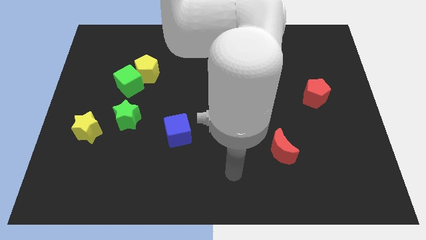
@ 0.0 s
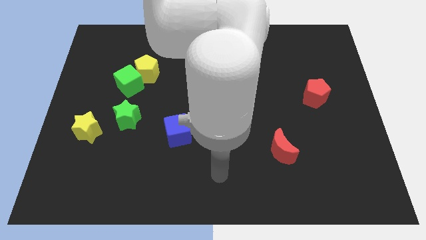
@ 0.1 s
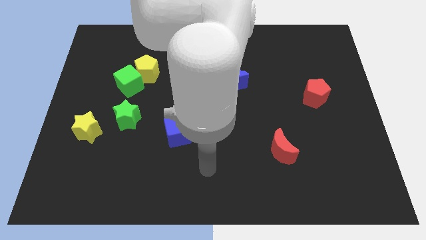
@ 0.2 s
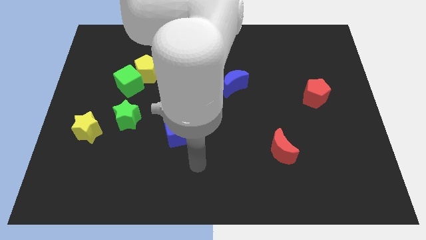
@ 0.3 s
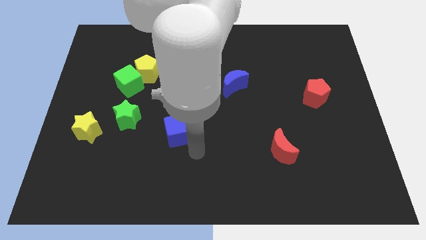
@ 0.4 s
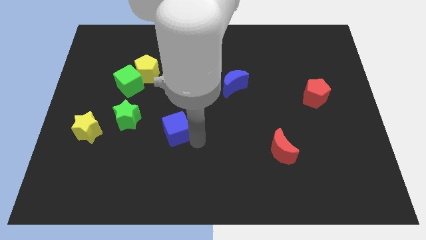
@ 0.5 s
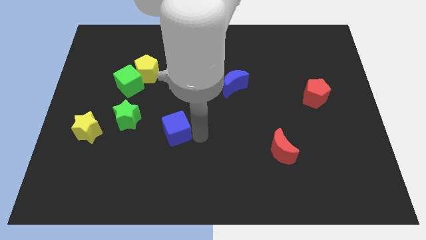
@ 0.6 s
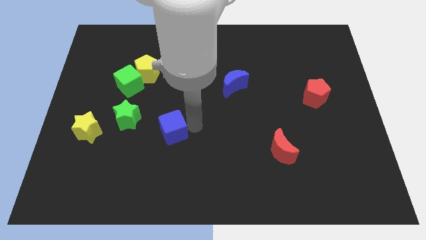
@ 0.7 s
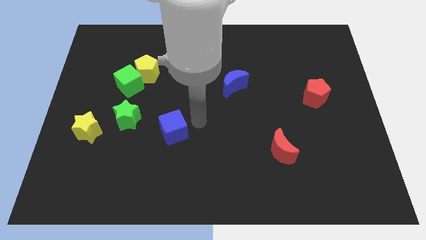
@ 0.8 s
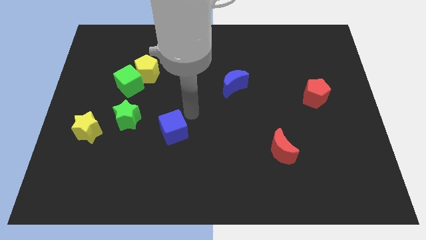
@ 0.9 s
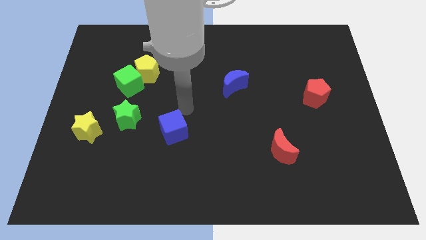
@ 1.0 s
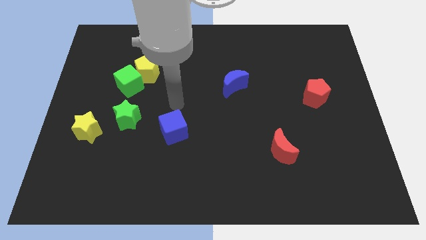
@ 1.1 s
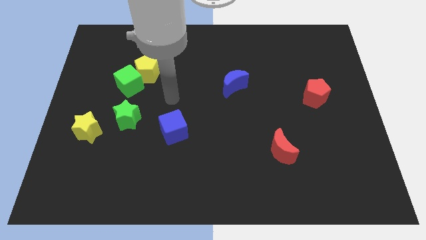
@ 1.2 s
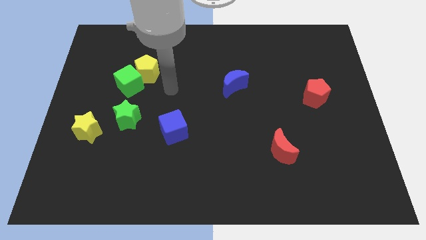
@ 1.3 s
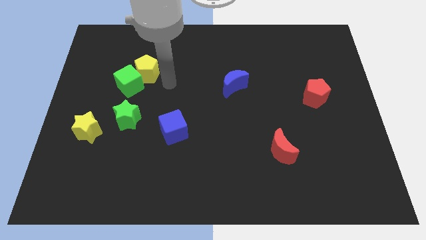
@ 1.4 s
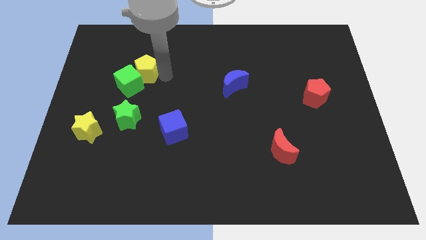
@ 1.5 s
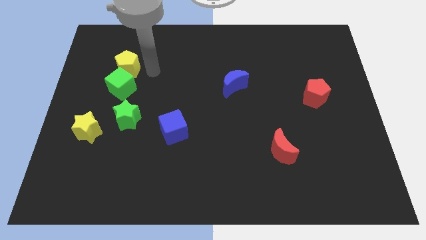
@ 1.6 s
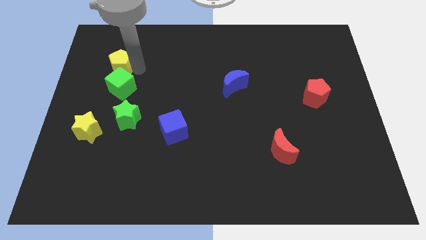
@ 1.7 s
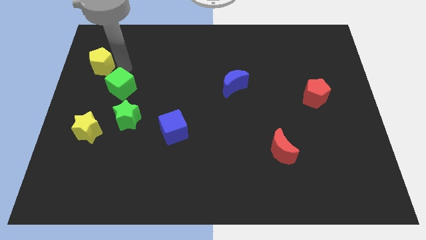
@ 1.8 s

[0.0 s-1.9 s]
pull the green cube apart from the yellow pentagon

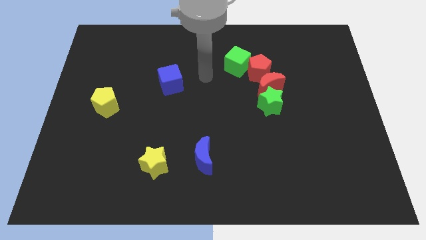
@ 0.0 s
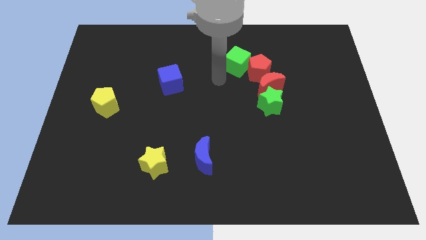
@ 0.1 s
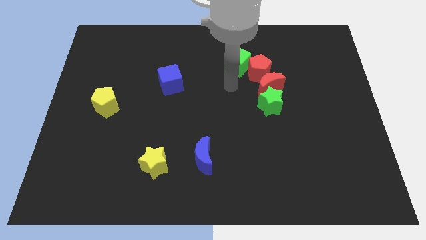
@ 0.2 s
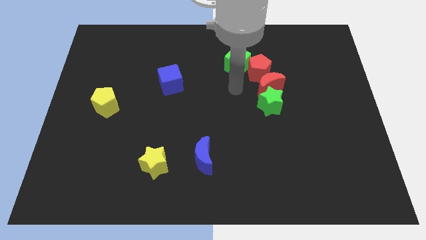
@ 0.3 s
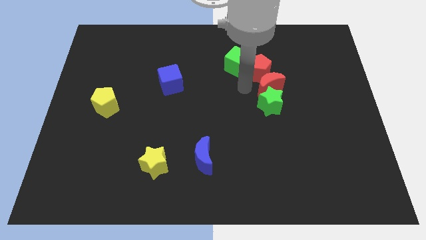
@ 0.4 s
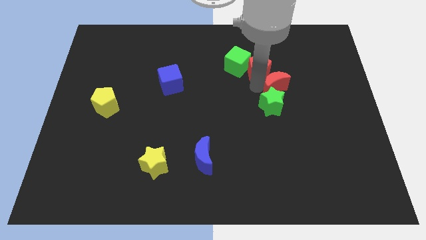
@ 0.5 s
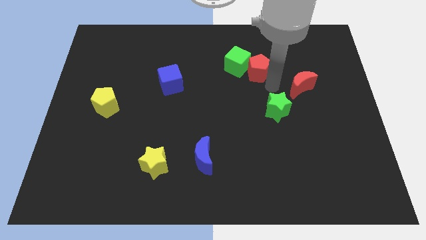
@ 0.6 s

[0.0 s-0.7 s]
pull the green star apart from the red moon

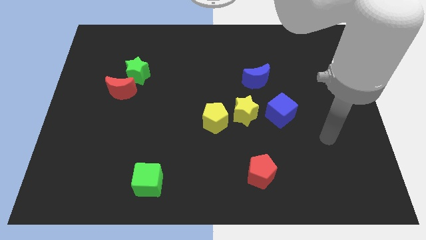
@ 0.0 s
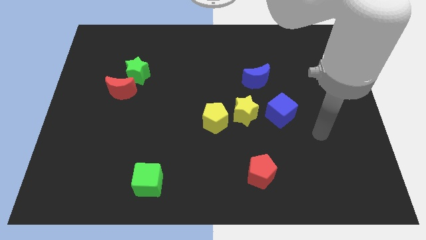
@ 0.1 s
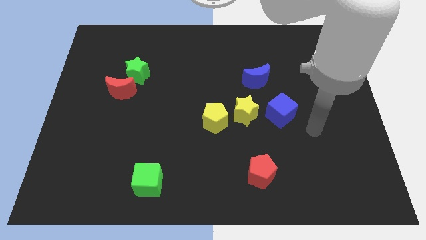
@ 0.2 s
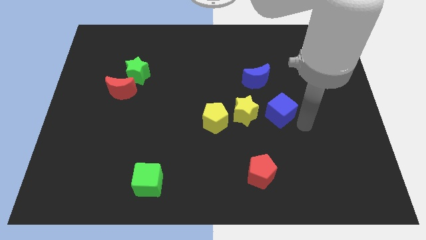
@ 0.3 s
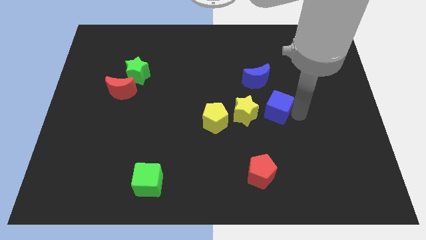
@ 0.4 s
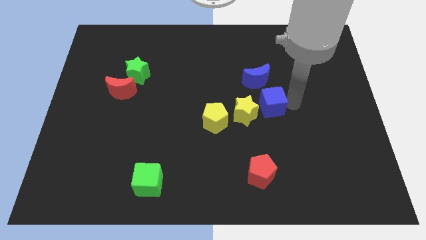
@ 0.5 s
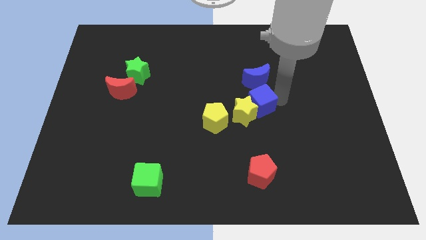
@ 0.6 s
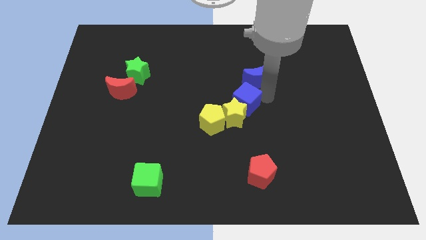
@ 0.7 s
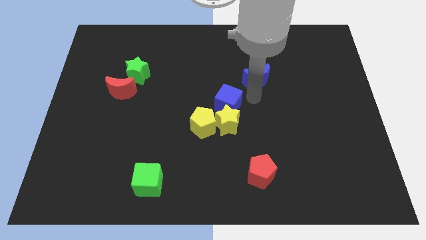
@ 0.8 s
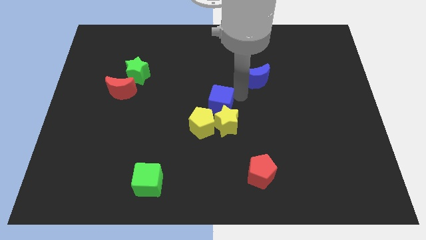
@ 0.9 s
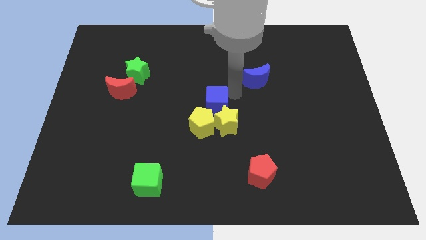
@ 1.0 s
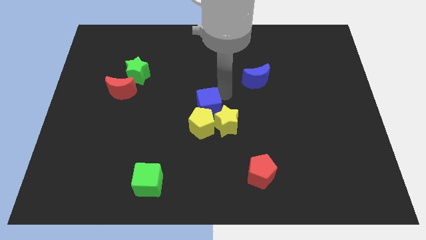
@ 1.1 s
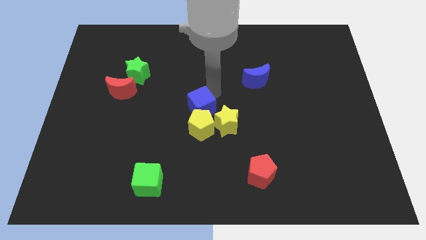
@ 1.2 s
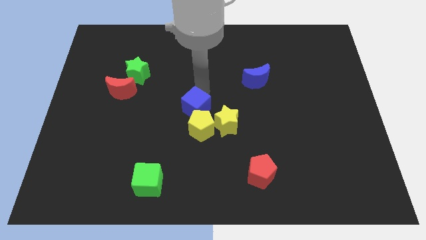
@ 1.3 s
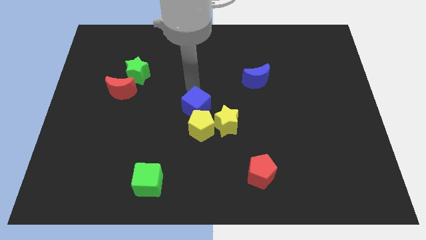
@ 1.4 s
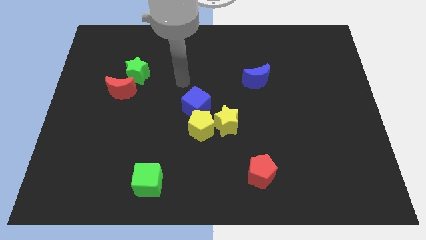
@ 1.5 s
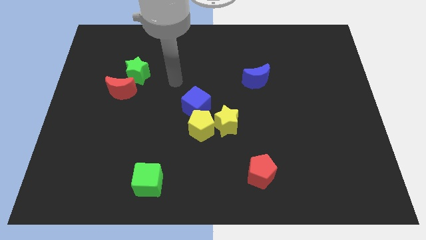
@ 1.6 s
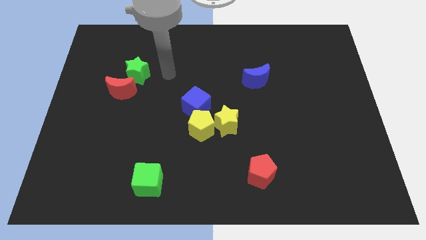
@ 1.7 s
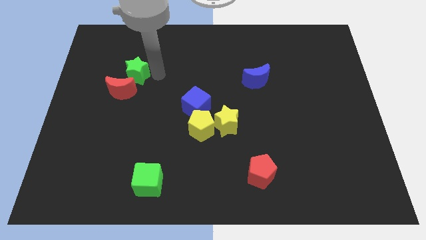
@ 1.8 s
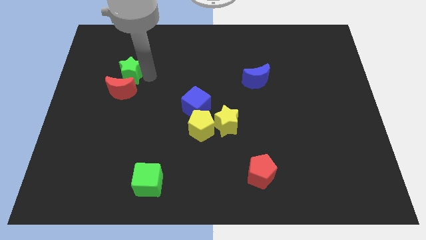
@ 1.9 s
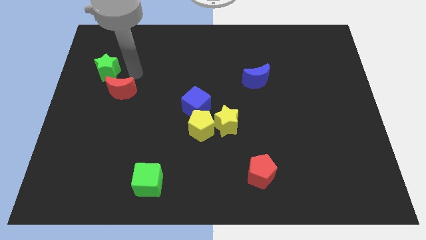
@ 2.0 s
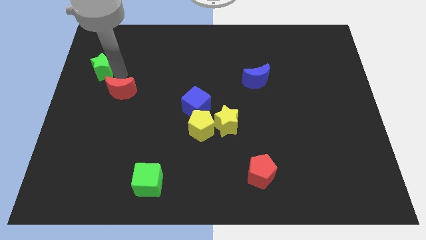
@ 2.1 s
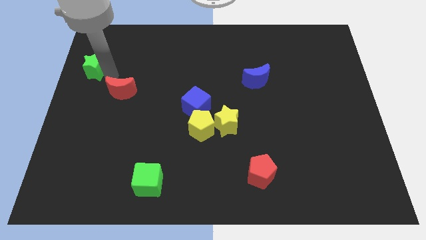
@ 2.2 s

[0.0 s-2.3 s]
separate the red moon from the green star

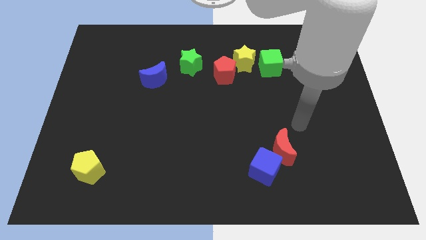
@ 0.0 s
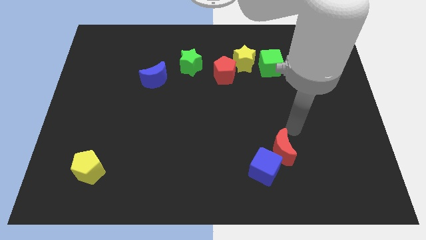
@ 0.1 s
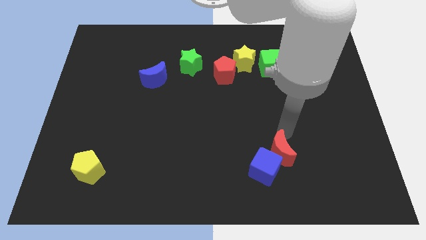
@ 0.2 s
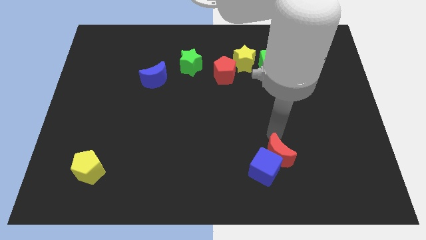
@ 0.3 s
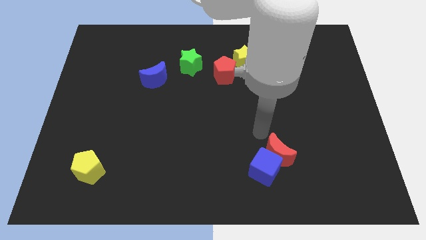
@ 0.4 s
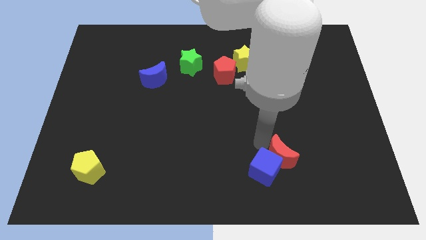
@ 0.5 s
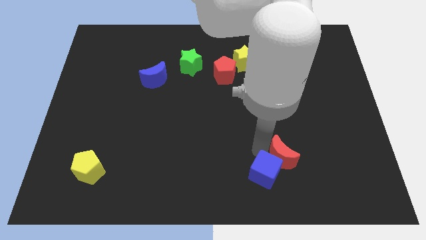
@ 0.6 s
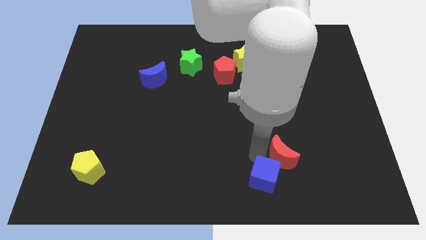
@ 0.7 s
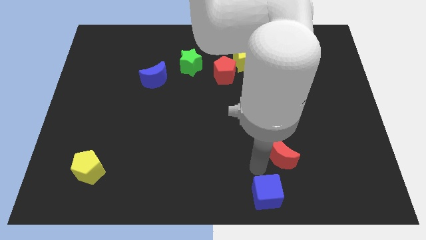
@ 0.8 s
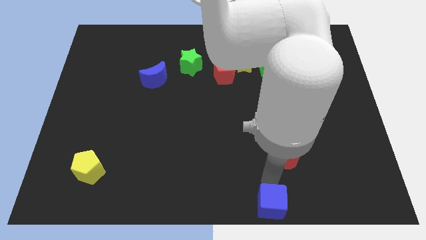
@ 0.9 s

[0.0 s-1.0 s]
pull the red moon apart from the blue cube

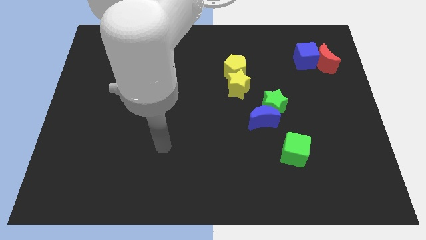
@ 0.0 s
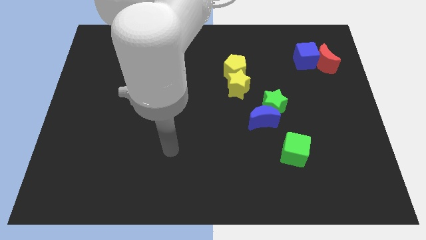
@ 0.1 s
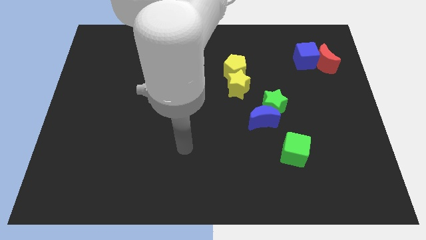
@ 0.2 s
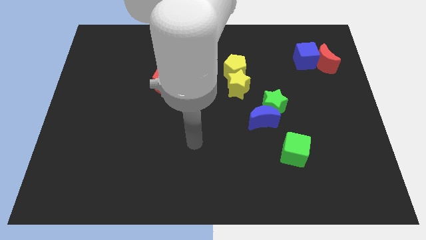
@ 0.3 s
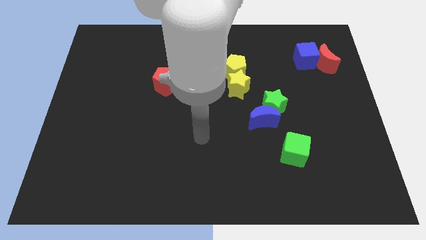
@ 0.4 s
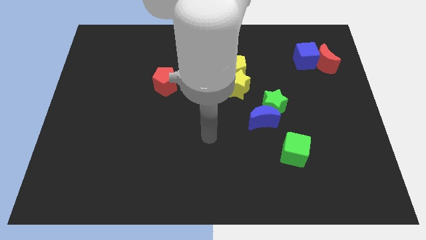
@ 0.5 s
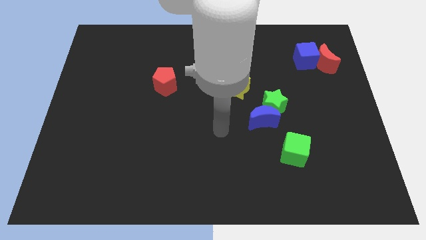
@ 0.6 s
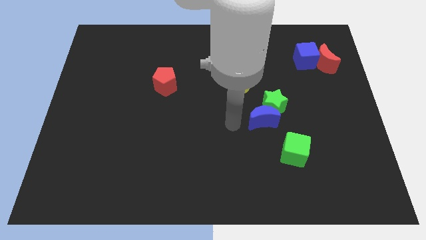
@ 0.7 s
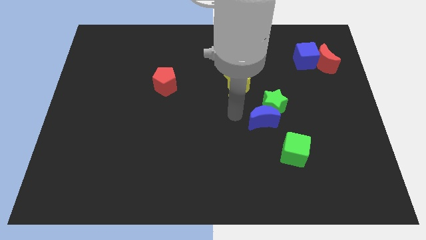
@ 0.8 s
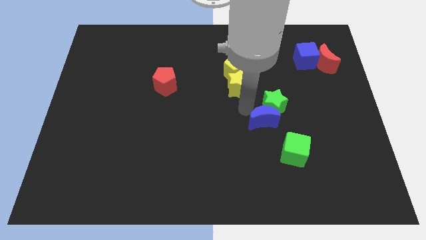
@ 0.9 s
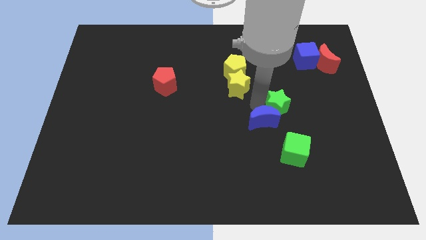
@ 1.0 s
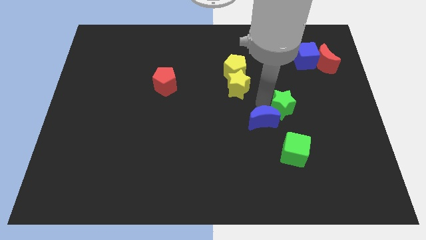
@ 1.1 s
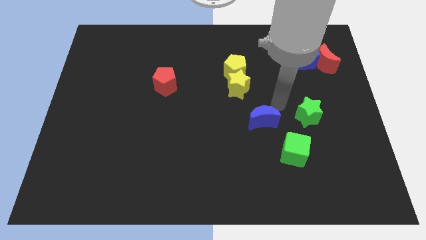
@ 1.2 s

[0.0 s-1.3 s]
move the blue moon away from the green star

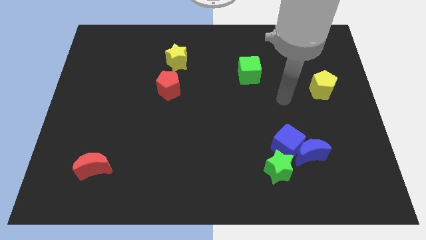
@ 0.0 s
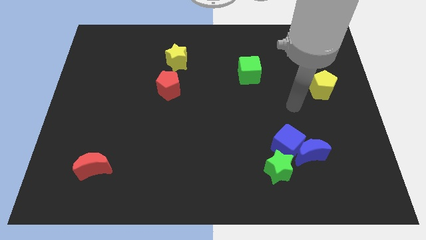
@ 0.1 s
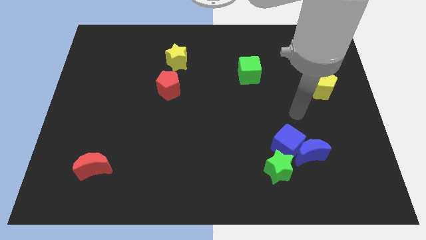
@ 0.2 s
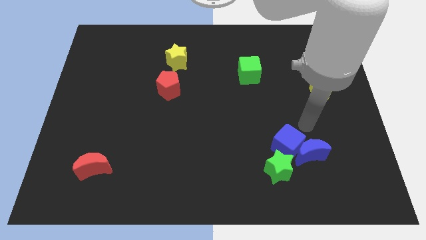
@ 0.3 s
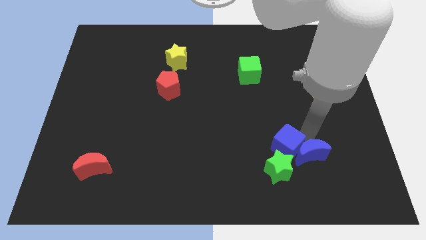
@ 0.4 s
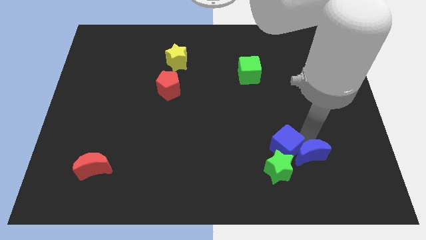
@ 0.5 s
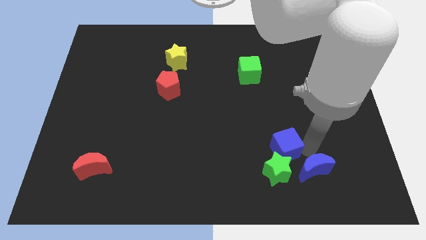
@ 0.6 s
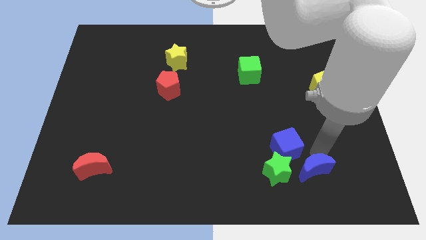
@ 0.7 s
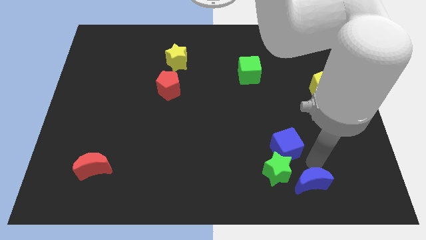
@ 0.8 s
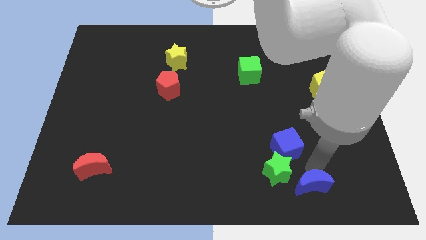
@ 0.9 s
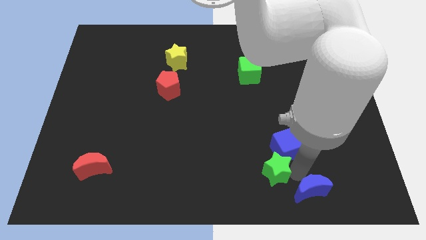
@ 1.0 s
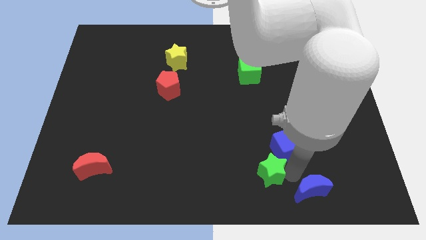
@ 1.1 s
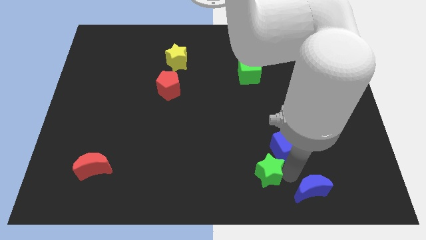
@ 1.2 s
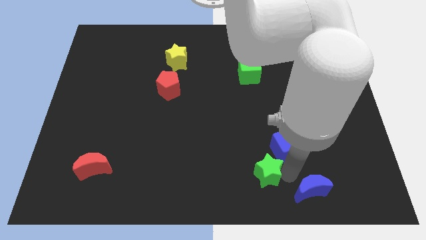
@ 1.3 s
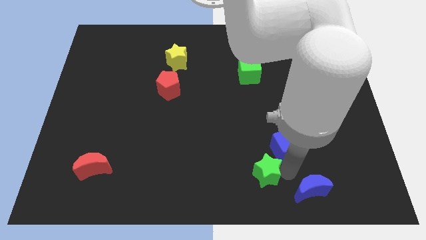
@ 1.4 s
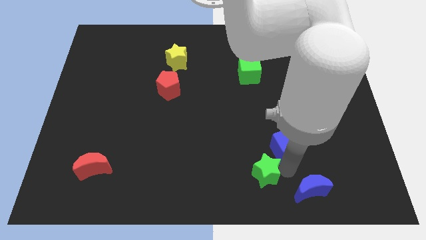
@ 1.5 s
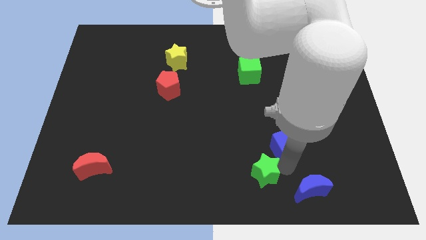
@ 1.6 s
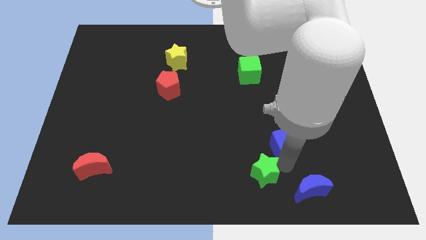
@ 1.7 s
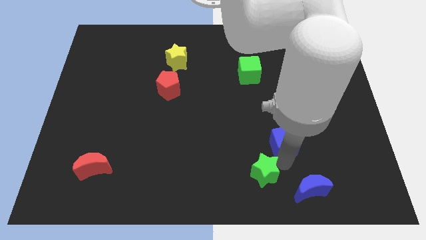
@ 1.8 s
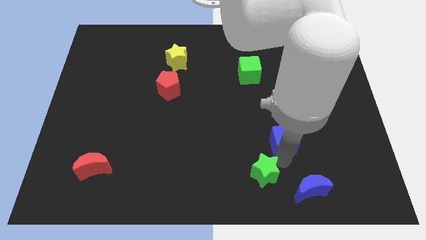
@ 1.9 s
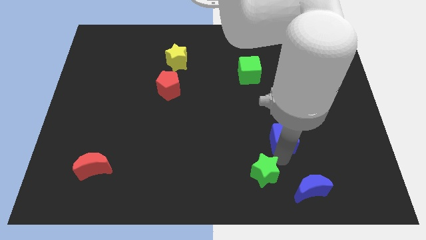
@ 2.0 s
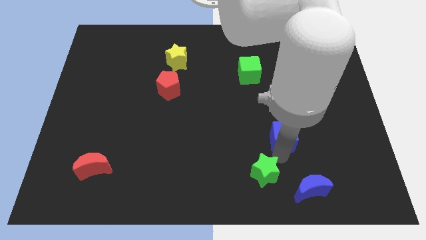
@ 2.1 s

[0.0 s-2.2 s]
move the blue cube away from the blue moon and green star
